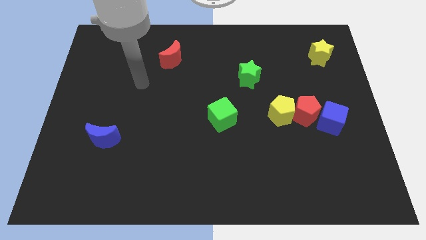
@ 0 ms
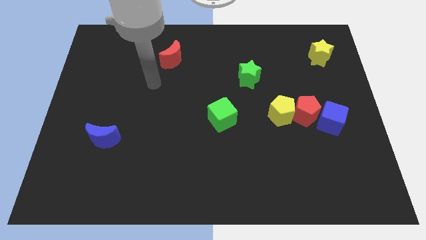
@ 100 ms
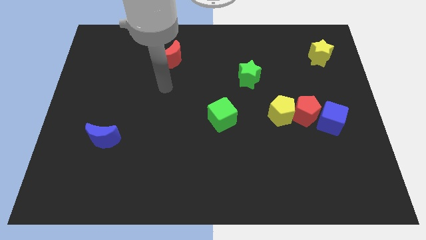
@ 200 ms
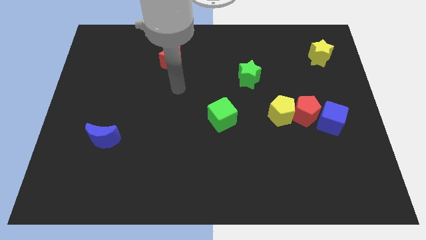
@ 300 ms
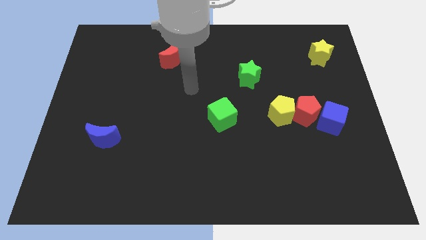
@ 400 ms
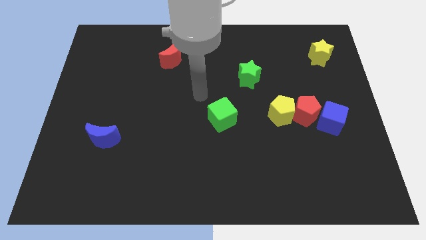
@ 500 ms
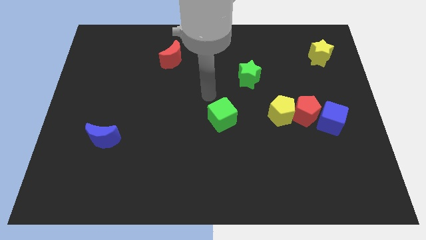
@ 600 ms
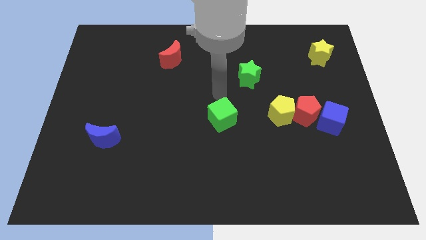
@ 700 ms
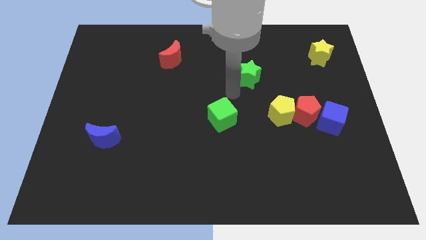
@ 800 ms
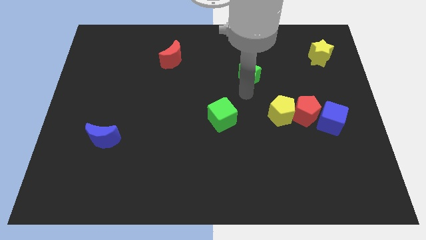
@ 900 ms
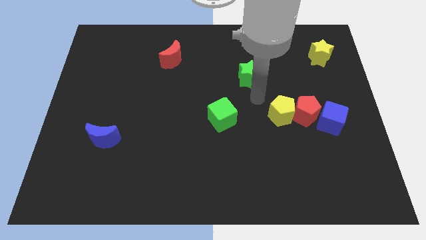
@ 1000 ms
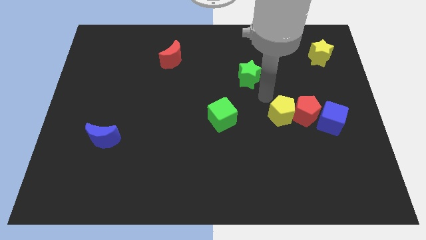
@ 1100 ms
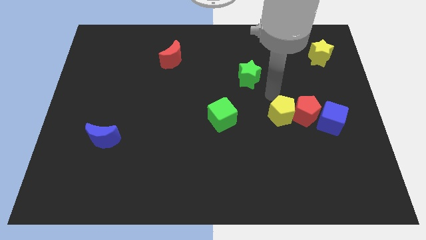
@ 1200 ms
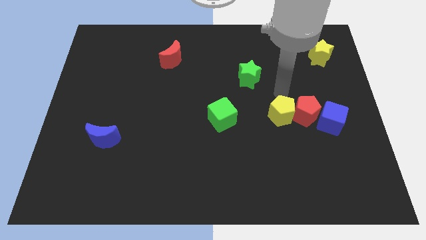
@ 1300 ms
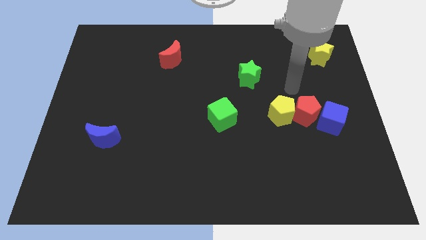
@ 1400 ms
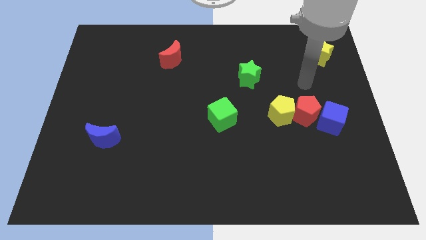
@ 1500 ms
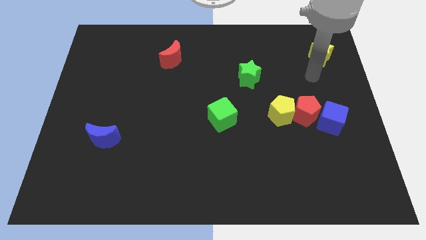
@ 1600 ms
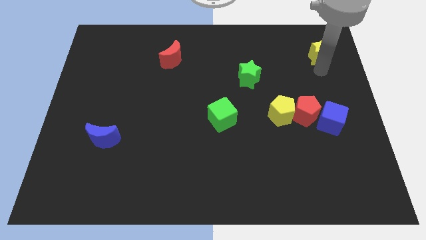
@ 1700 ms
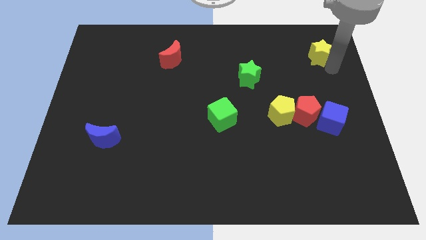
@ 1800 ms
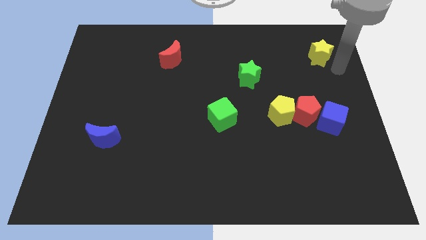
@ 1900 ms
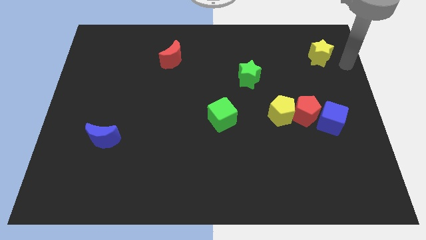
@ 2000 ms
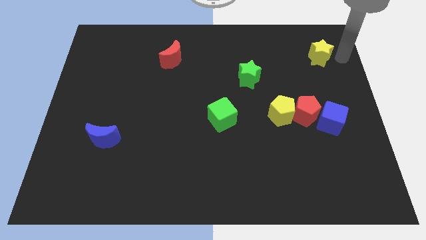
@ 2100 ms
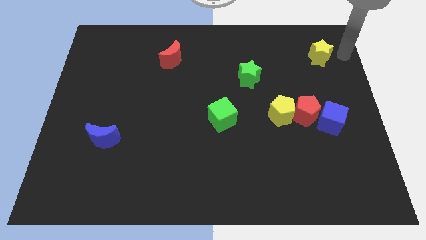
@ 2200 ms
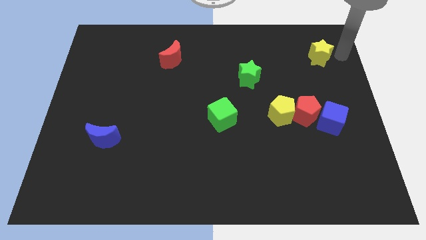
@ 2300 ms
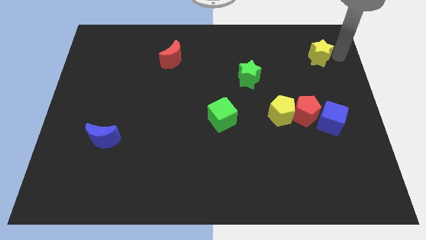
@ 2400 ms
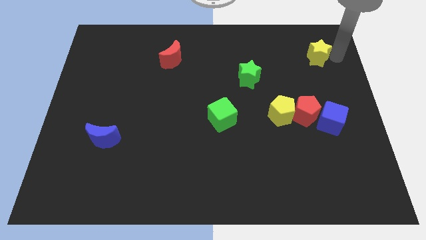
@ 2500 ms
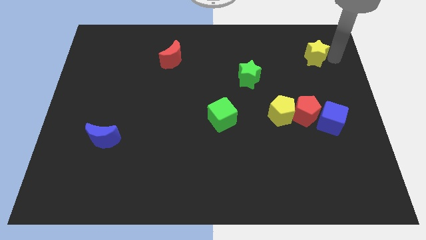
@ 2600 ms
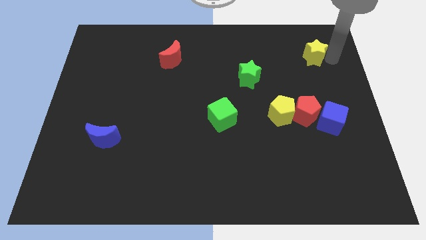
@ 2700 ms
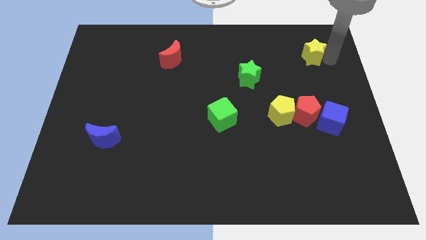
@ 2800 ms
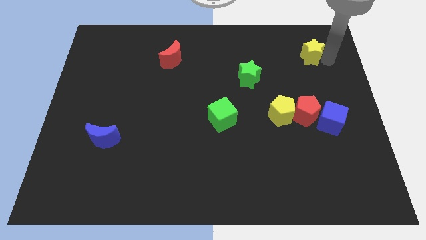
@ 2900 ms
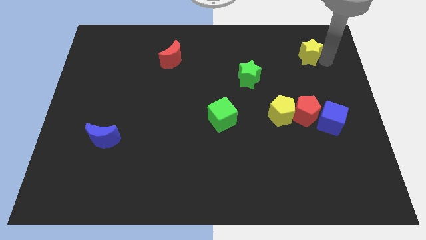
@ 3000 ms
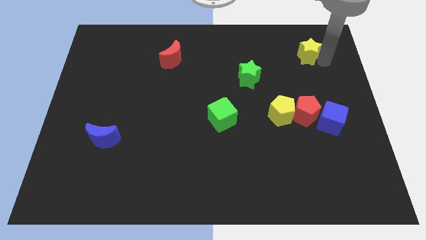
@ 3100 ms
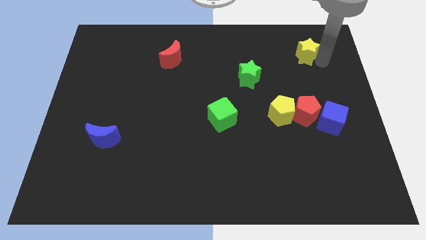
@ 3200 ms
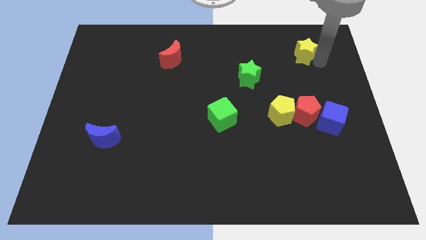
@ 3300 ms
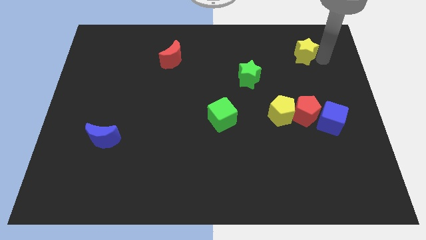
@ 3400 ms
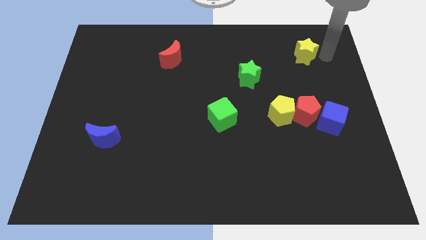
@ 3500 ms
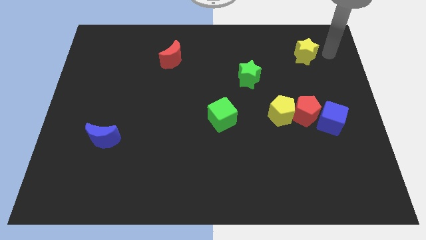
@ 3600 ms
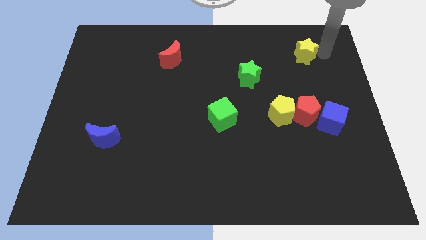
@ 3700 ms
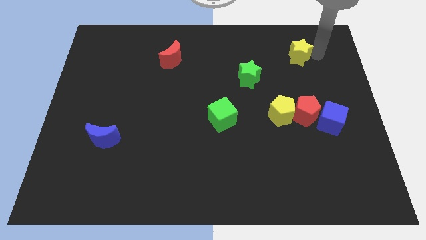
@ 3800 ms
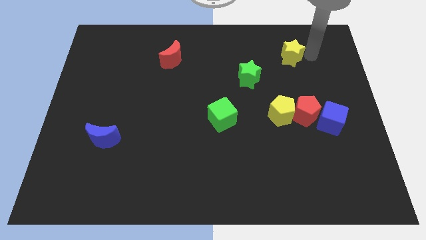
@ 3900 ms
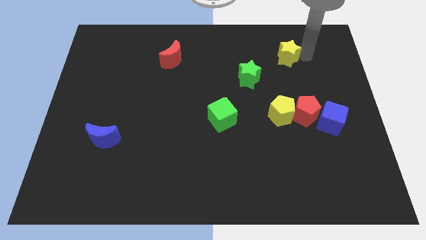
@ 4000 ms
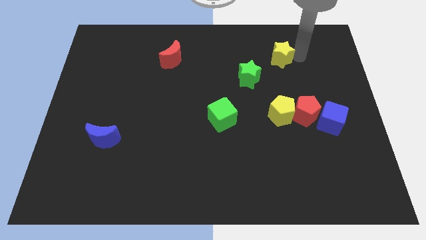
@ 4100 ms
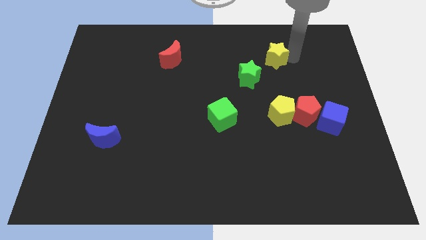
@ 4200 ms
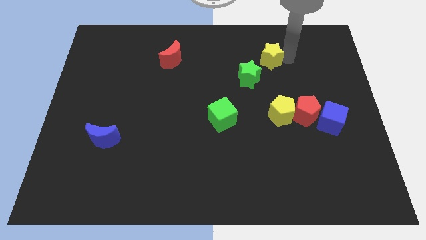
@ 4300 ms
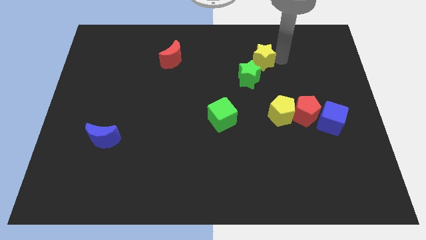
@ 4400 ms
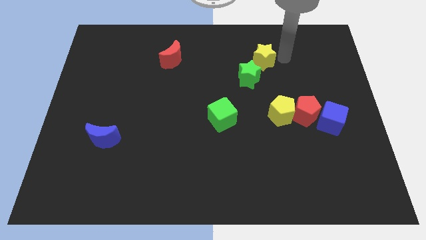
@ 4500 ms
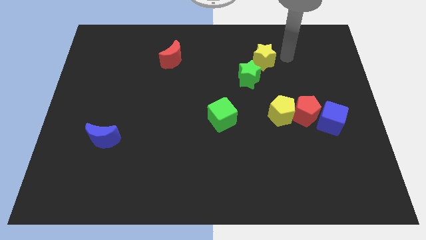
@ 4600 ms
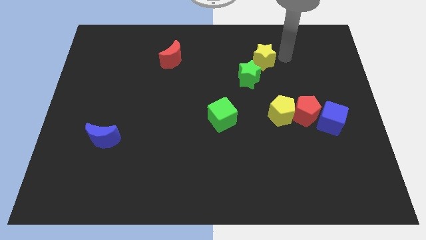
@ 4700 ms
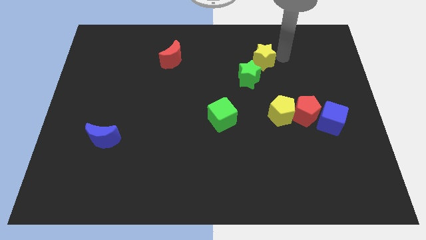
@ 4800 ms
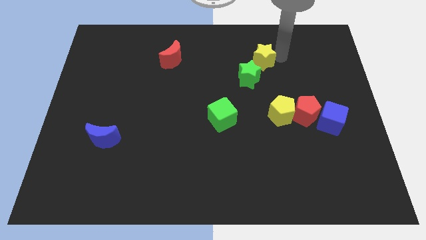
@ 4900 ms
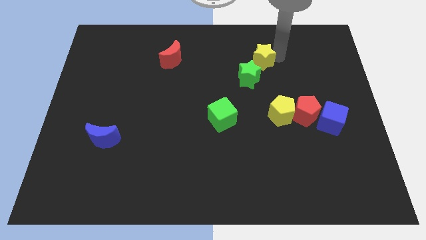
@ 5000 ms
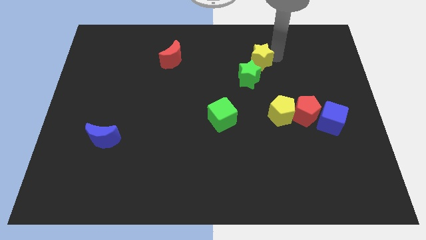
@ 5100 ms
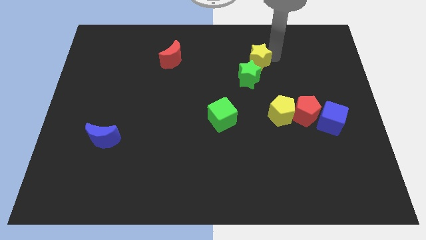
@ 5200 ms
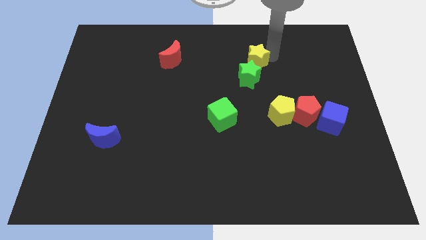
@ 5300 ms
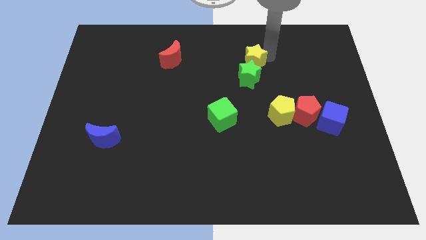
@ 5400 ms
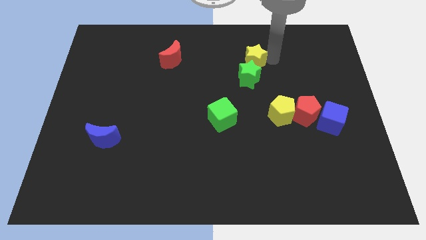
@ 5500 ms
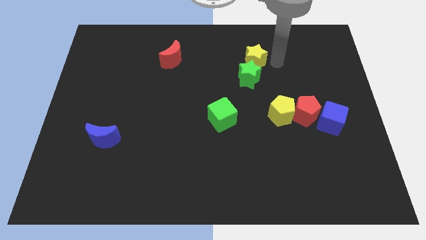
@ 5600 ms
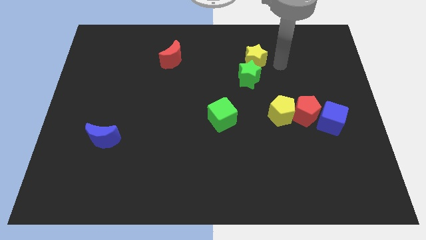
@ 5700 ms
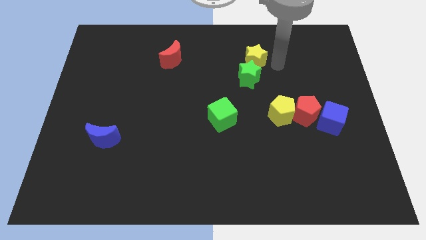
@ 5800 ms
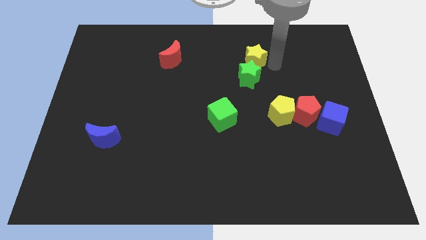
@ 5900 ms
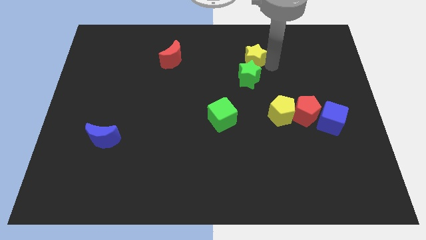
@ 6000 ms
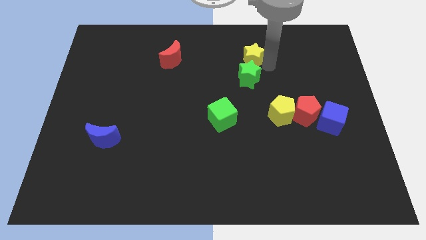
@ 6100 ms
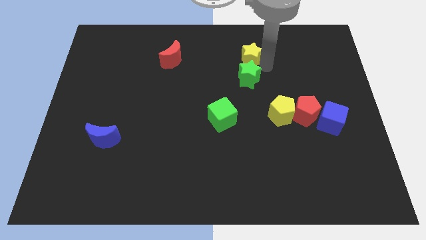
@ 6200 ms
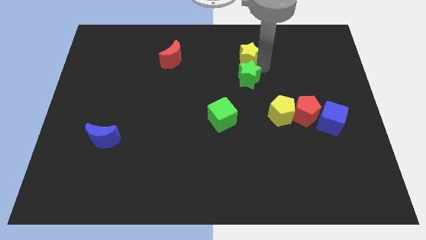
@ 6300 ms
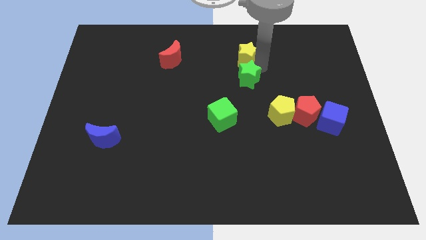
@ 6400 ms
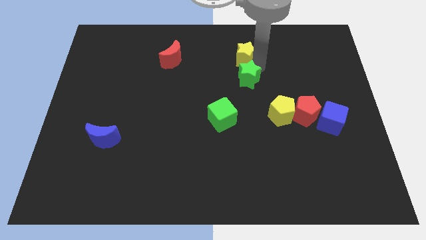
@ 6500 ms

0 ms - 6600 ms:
move the yellow star left

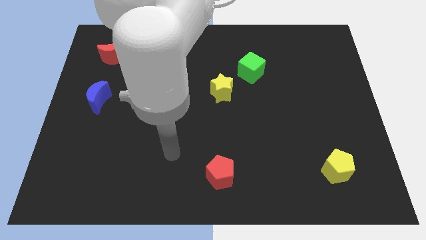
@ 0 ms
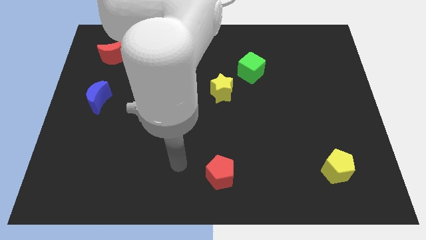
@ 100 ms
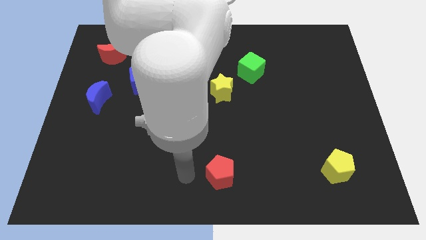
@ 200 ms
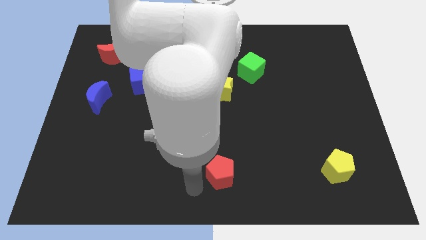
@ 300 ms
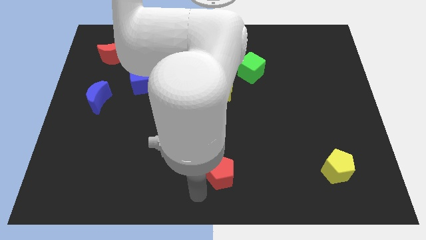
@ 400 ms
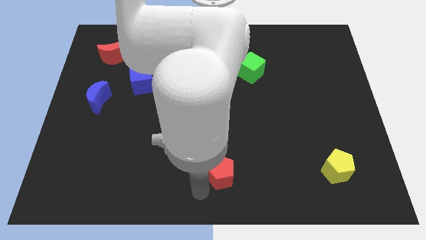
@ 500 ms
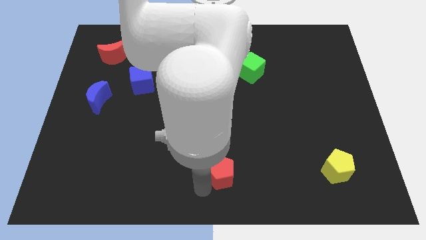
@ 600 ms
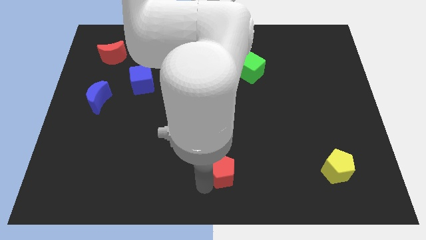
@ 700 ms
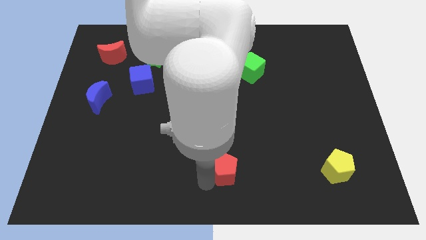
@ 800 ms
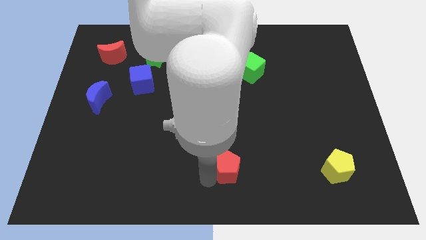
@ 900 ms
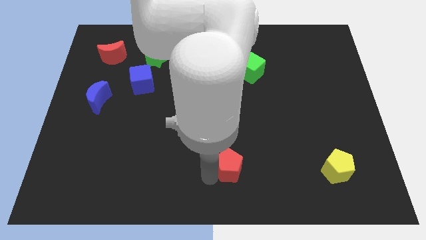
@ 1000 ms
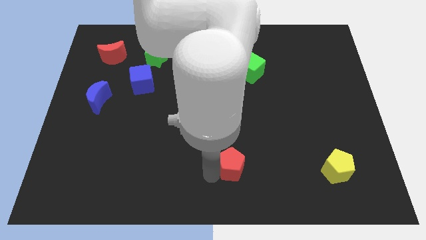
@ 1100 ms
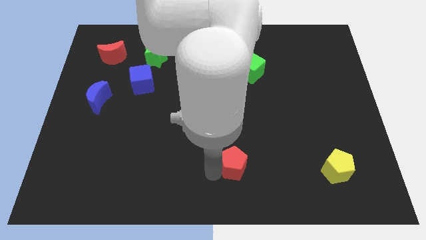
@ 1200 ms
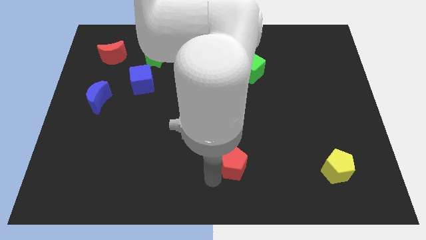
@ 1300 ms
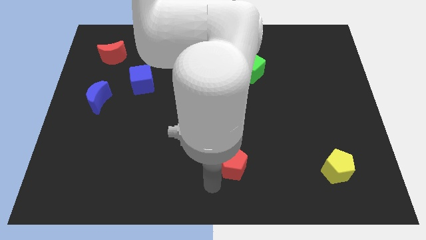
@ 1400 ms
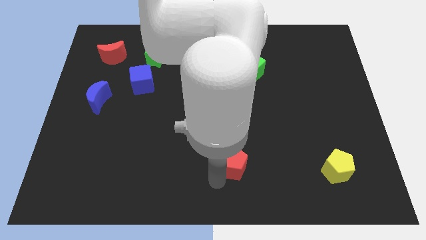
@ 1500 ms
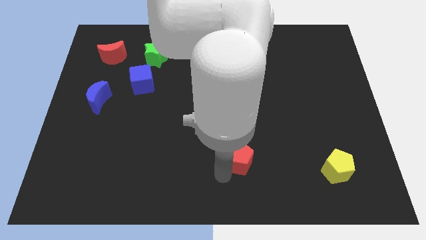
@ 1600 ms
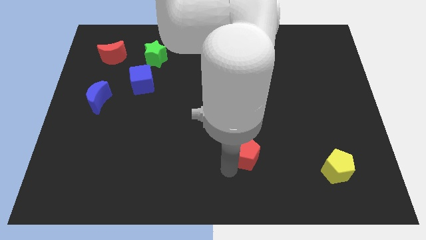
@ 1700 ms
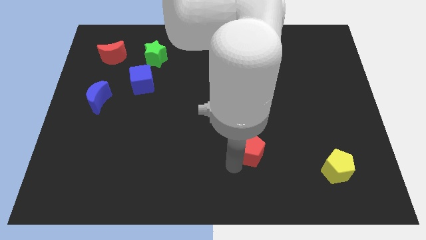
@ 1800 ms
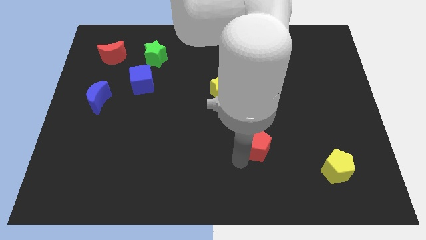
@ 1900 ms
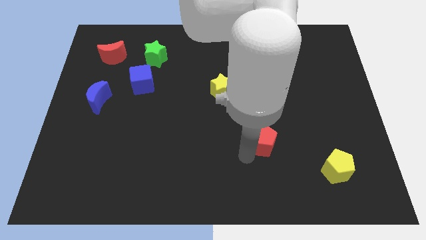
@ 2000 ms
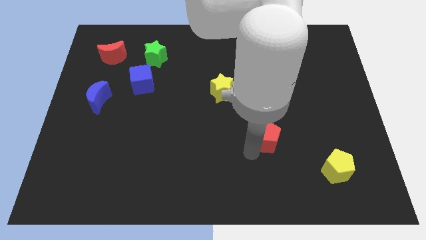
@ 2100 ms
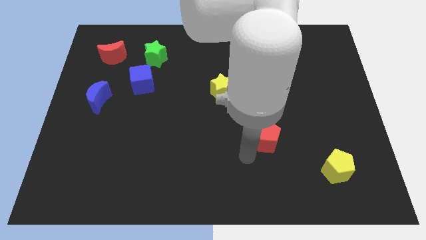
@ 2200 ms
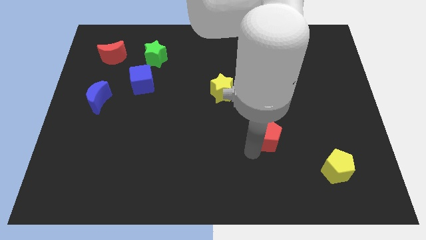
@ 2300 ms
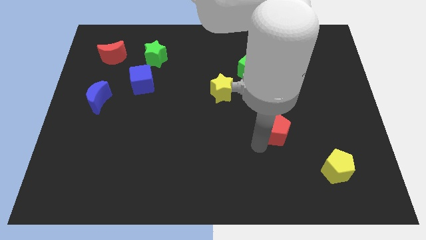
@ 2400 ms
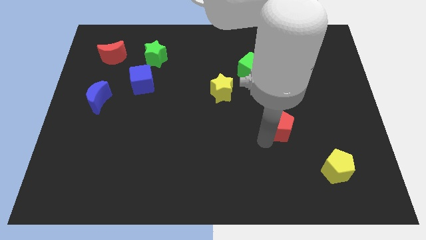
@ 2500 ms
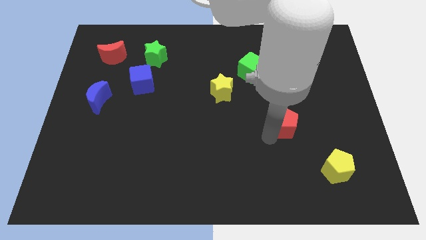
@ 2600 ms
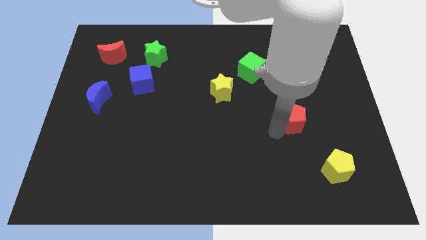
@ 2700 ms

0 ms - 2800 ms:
move the red pentagon upwards and to the right diagonally
